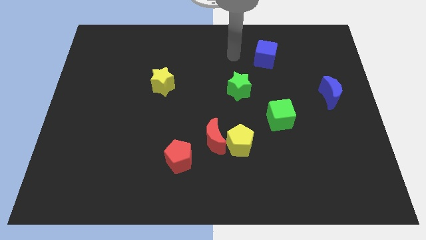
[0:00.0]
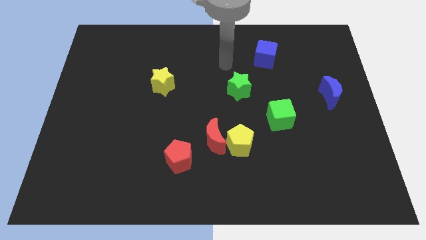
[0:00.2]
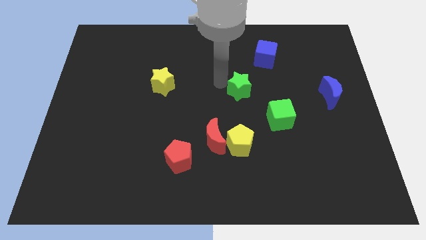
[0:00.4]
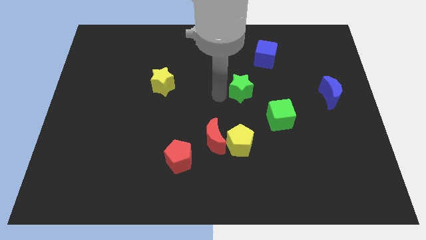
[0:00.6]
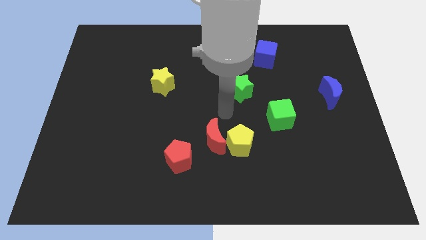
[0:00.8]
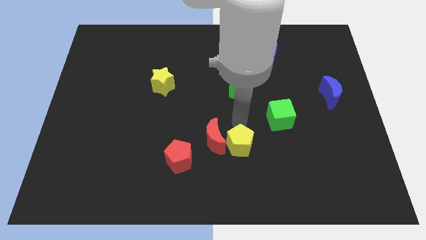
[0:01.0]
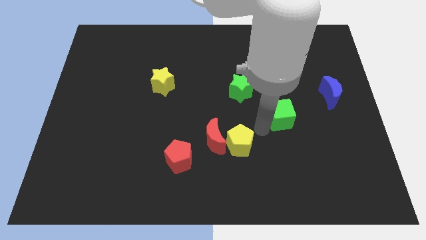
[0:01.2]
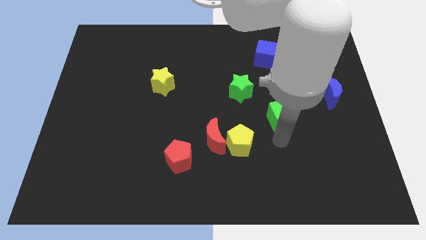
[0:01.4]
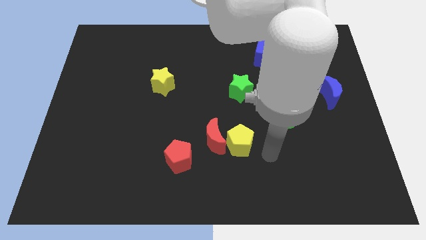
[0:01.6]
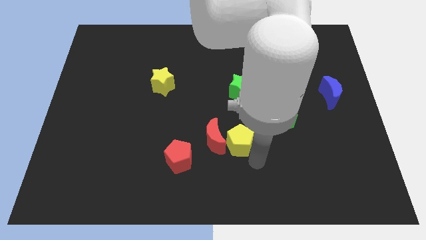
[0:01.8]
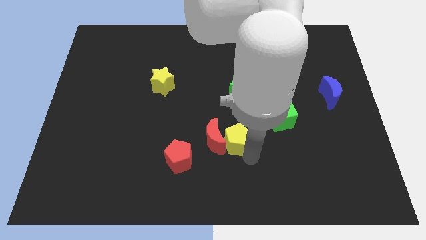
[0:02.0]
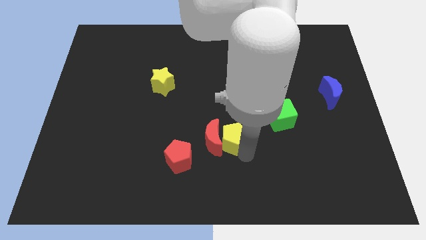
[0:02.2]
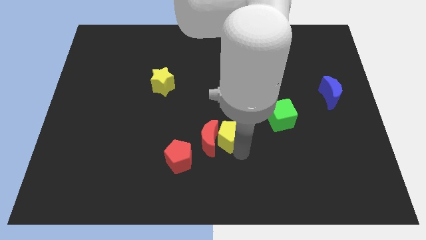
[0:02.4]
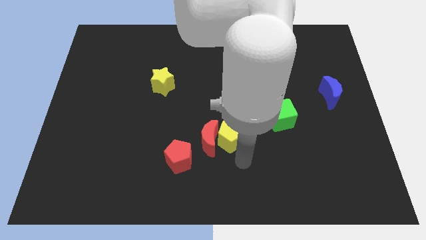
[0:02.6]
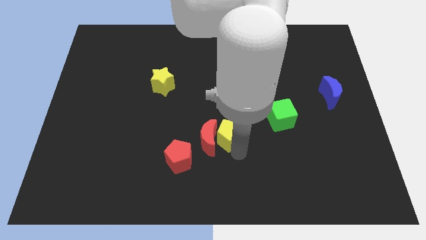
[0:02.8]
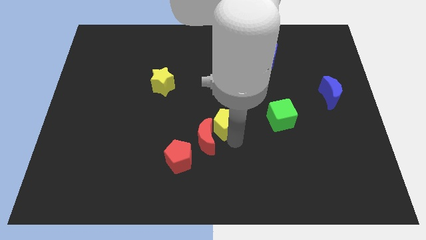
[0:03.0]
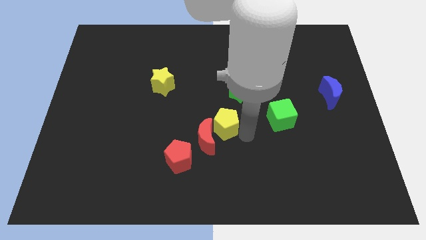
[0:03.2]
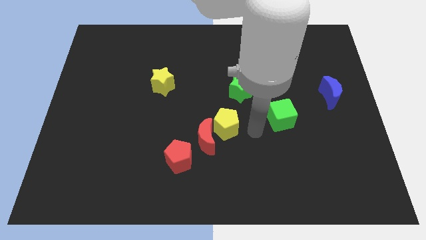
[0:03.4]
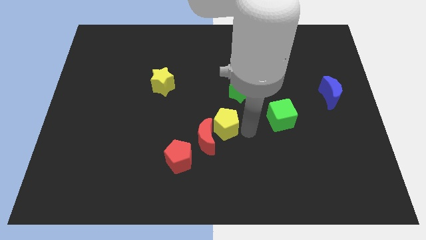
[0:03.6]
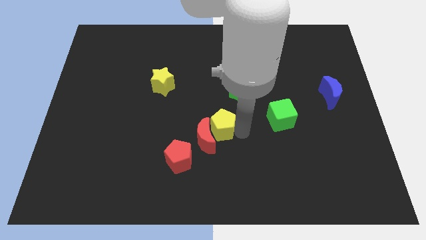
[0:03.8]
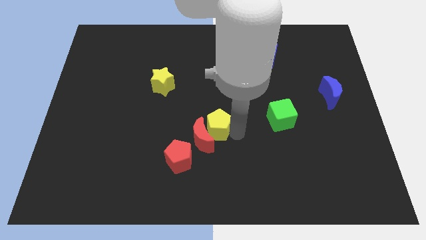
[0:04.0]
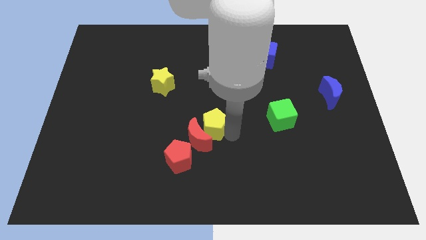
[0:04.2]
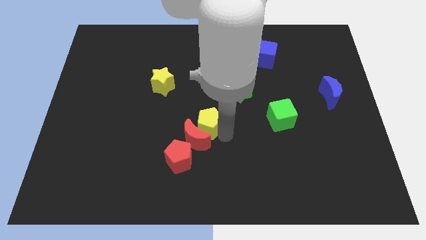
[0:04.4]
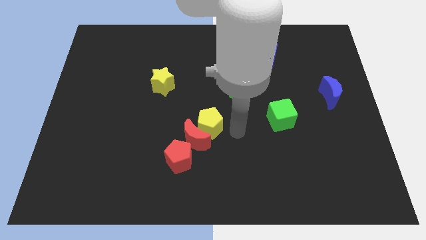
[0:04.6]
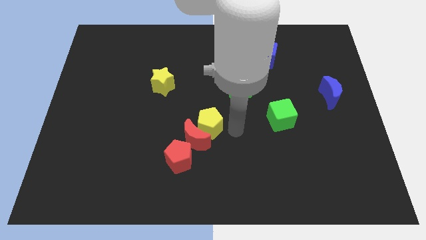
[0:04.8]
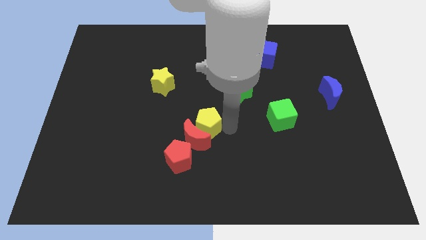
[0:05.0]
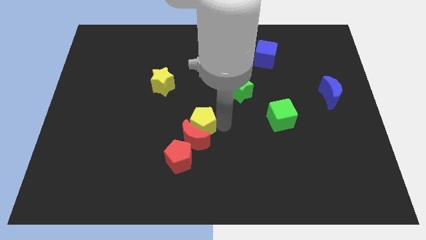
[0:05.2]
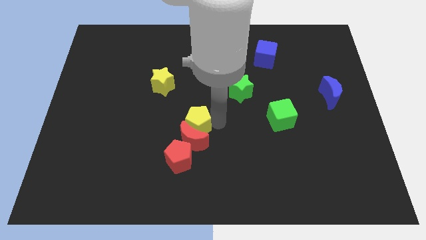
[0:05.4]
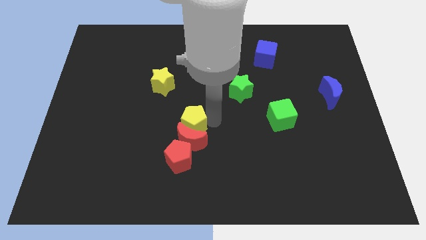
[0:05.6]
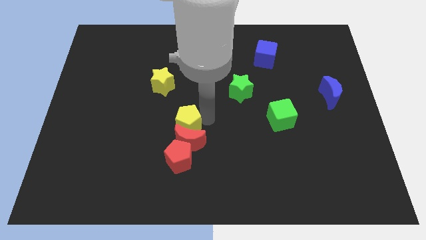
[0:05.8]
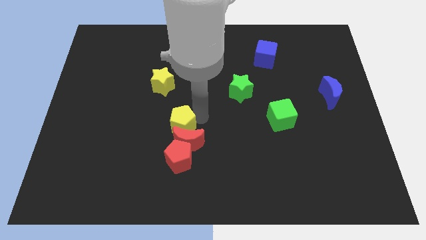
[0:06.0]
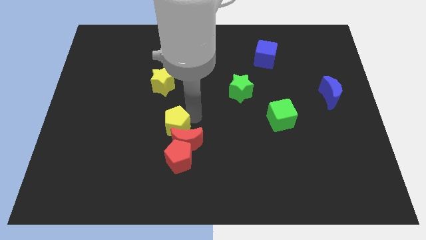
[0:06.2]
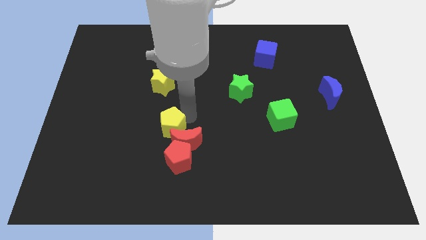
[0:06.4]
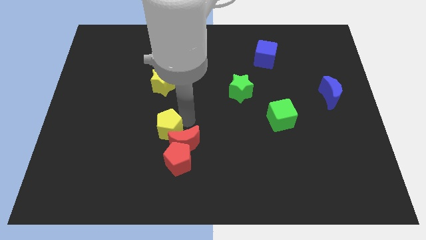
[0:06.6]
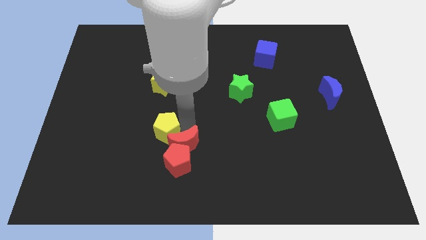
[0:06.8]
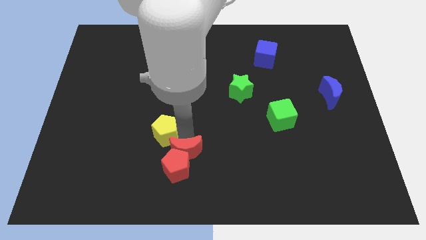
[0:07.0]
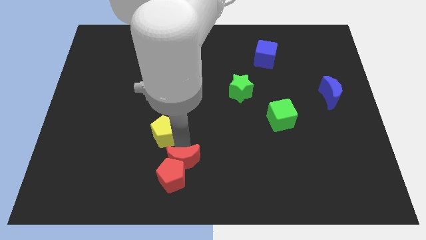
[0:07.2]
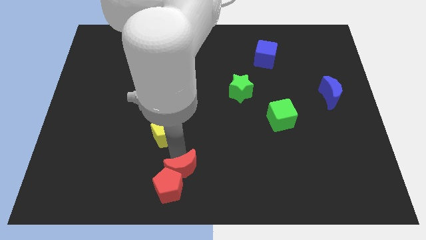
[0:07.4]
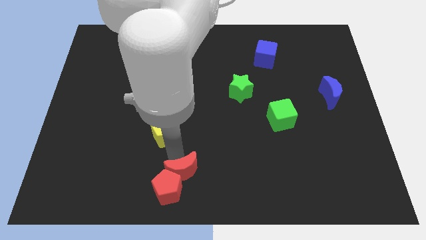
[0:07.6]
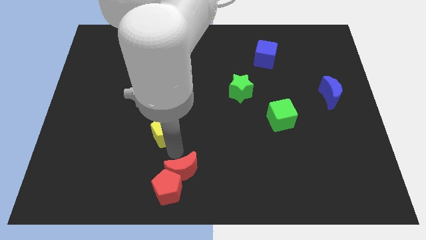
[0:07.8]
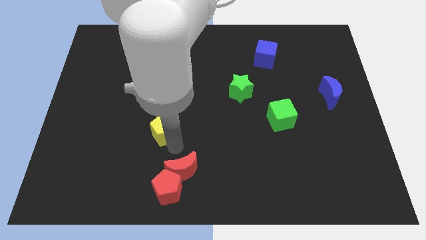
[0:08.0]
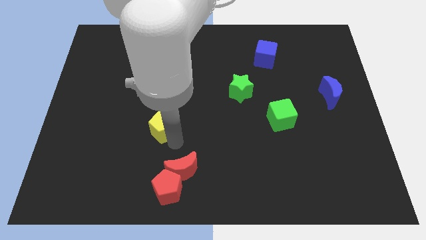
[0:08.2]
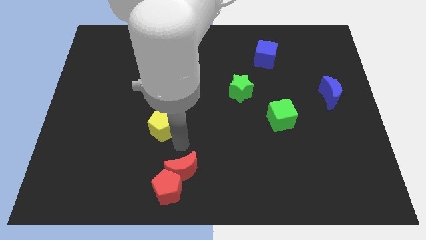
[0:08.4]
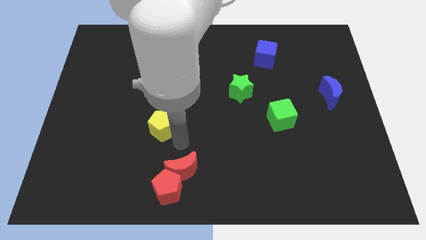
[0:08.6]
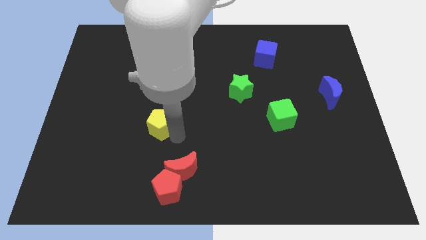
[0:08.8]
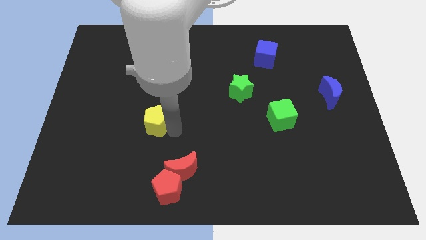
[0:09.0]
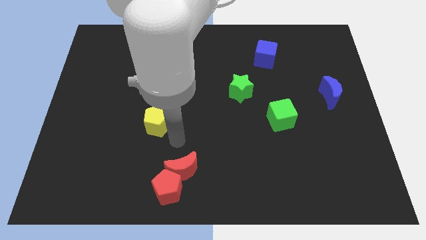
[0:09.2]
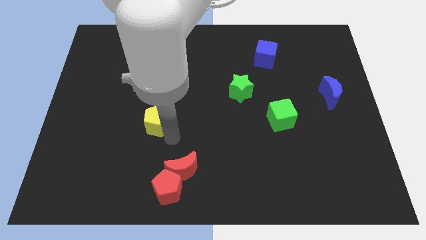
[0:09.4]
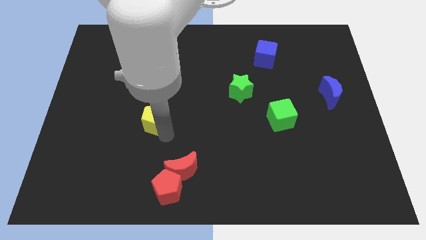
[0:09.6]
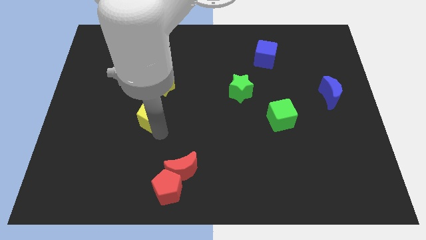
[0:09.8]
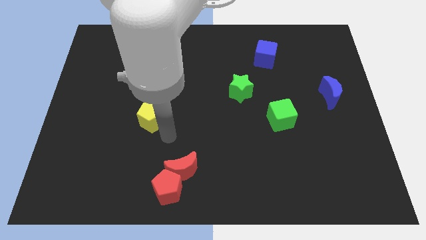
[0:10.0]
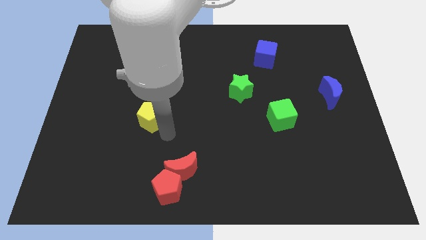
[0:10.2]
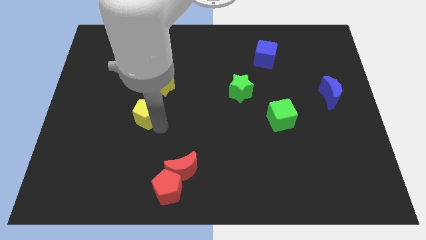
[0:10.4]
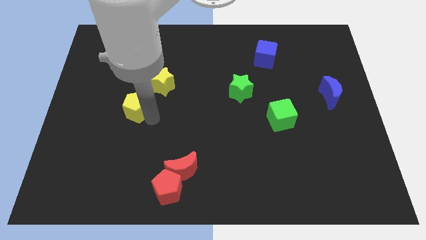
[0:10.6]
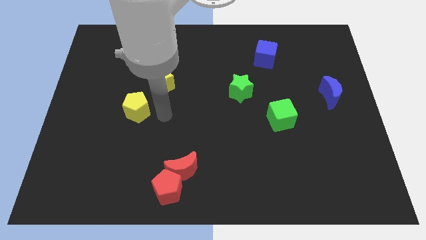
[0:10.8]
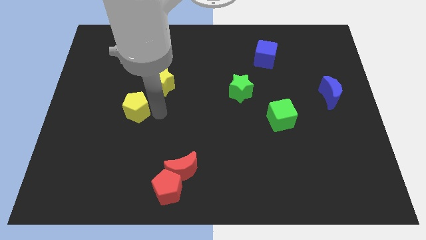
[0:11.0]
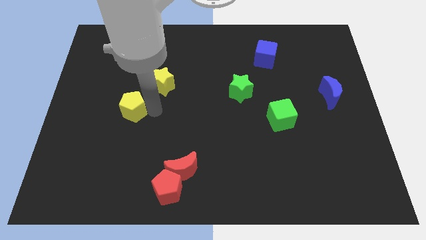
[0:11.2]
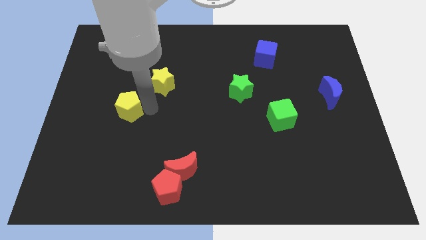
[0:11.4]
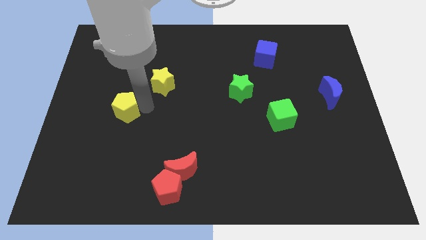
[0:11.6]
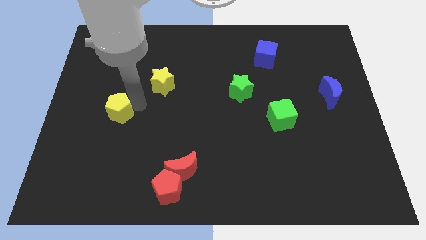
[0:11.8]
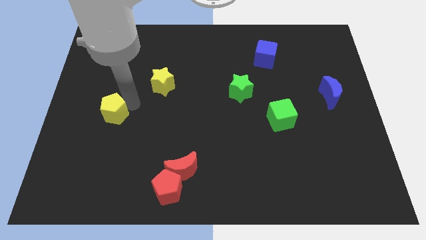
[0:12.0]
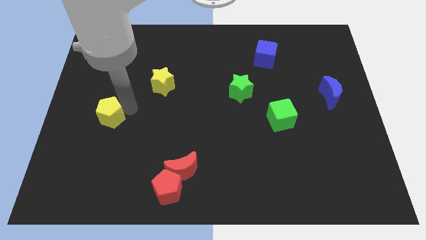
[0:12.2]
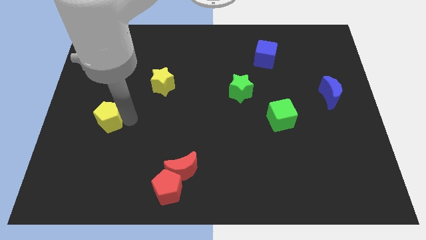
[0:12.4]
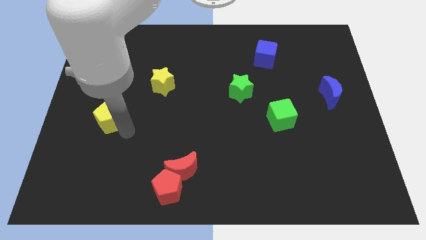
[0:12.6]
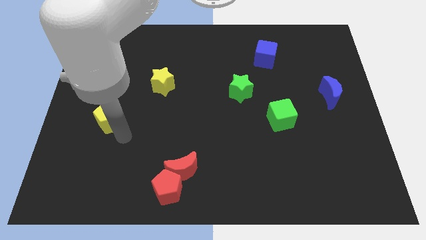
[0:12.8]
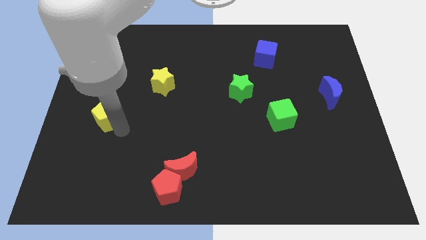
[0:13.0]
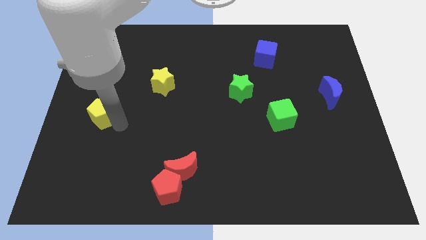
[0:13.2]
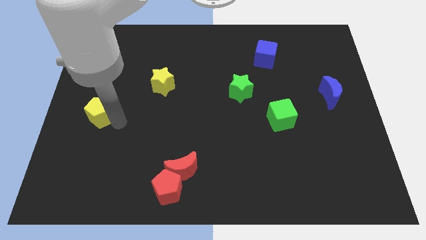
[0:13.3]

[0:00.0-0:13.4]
put the yellow pentagon to the left side
